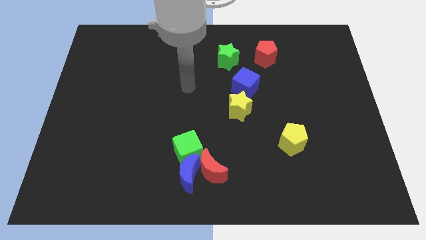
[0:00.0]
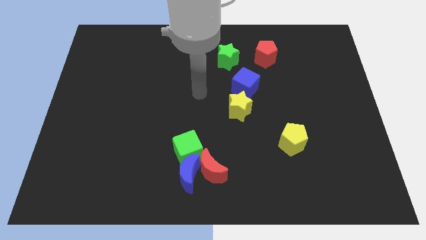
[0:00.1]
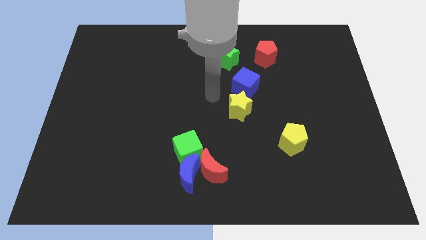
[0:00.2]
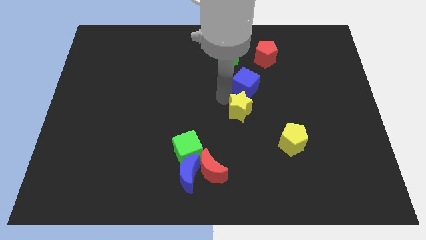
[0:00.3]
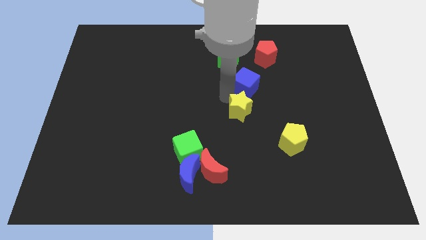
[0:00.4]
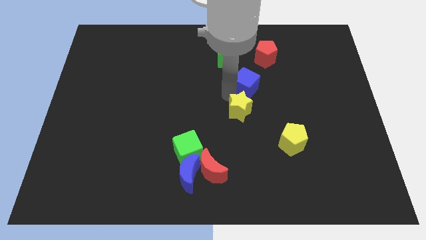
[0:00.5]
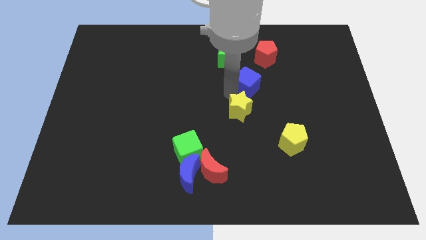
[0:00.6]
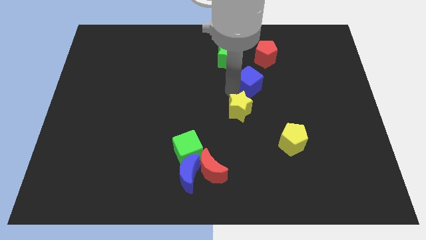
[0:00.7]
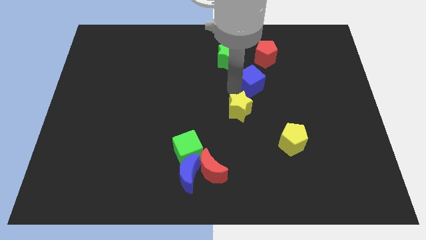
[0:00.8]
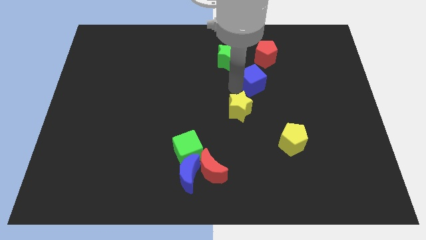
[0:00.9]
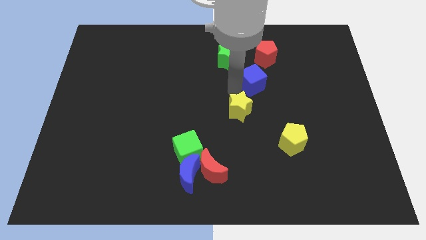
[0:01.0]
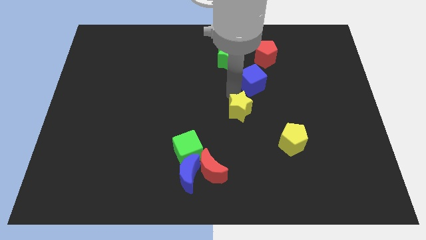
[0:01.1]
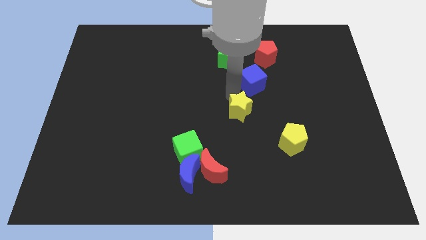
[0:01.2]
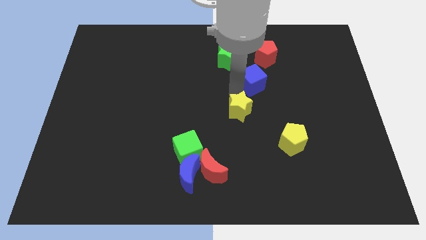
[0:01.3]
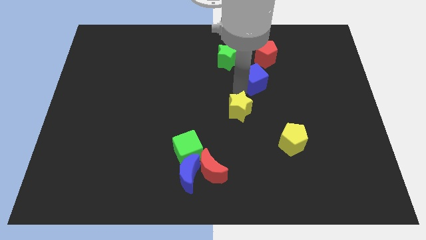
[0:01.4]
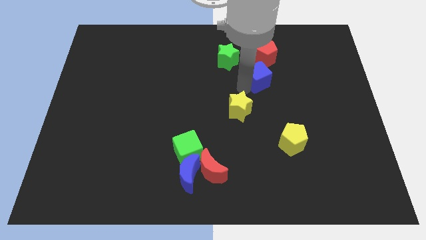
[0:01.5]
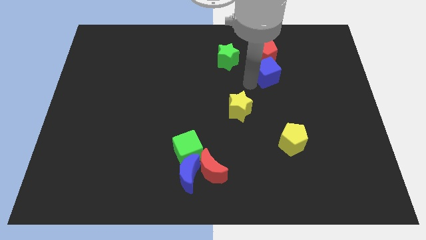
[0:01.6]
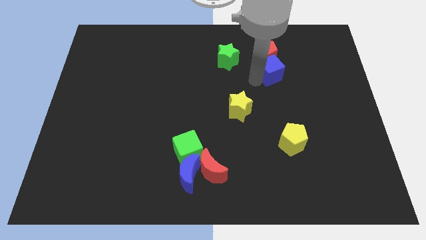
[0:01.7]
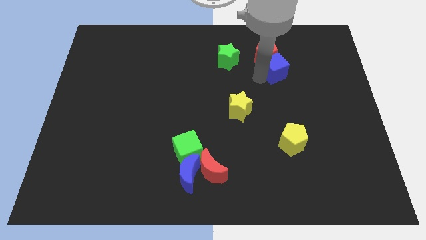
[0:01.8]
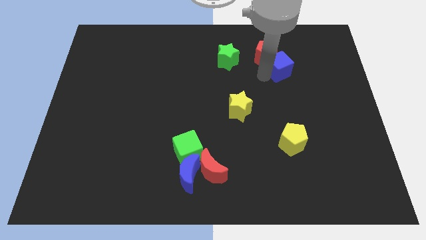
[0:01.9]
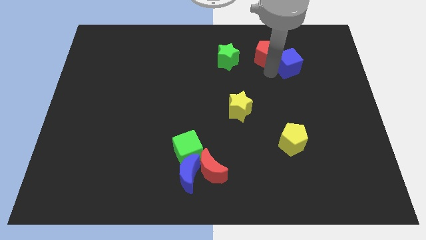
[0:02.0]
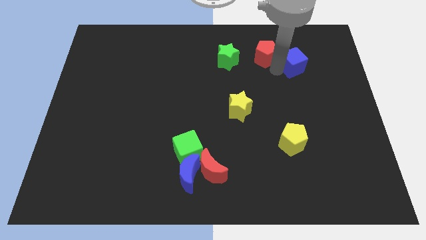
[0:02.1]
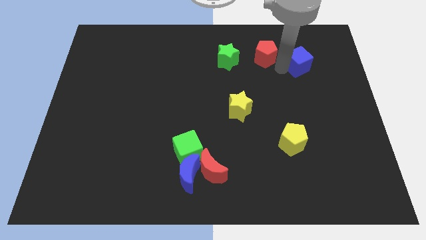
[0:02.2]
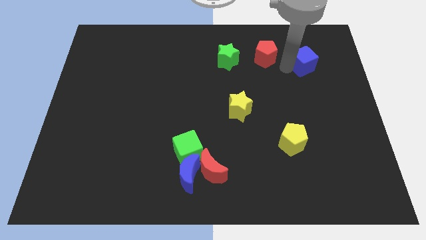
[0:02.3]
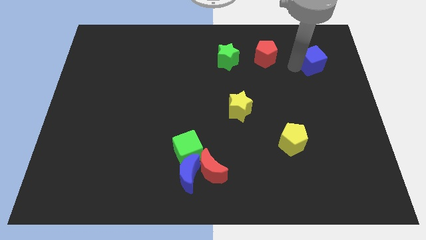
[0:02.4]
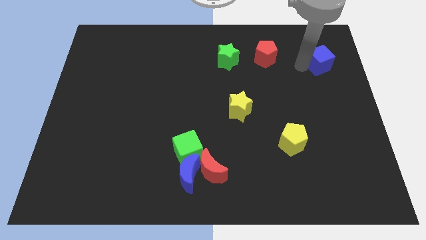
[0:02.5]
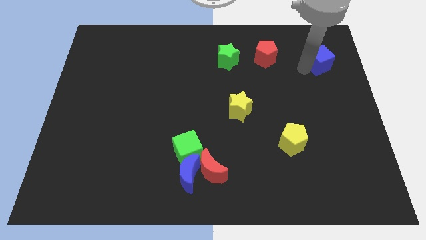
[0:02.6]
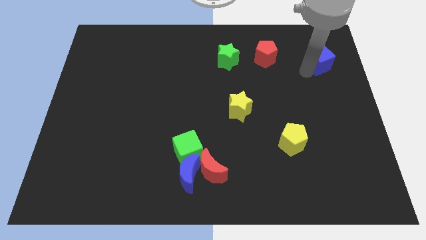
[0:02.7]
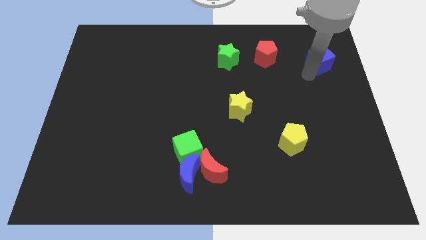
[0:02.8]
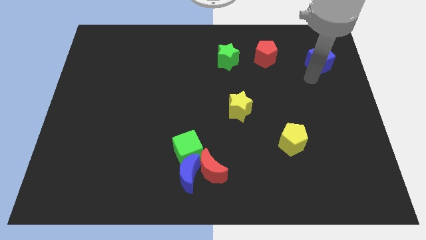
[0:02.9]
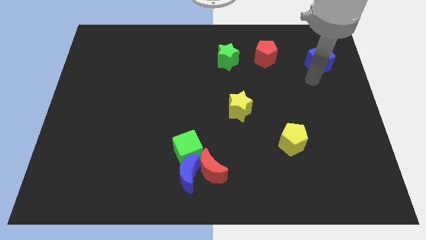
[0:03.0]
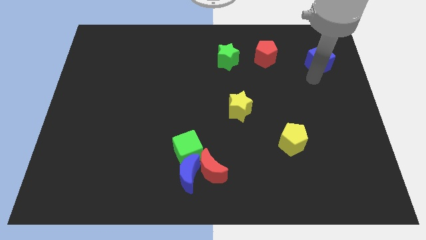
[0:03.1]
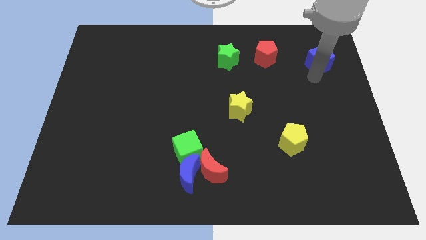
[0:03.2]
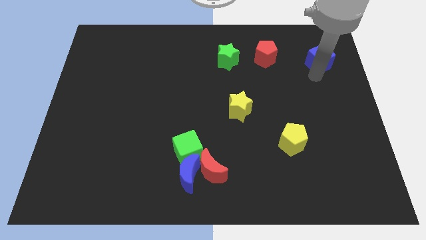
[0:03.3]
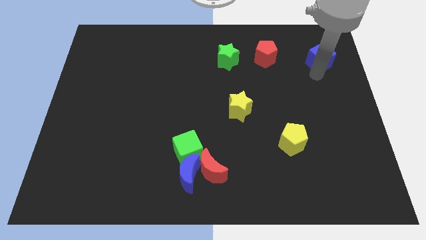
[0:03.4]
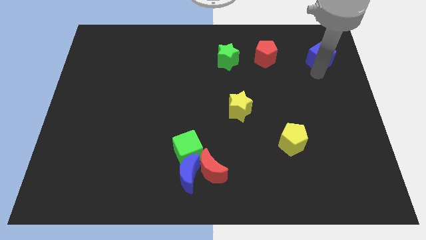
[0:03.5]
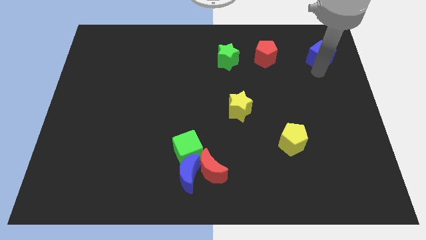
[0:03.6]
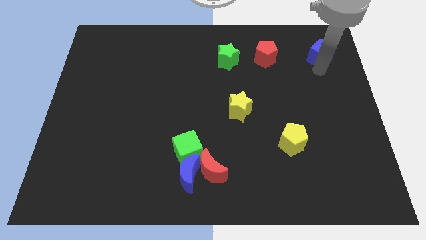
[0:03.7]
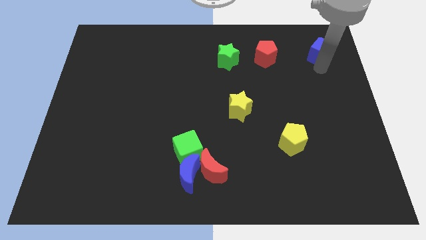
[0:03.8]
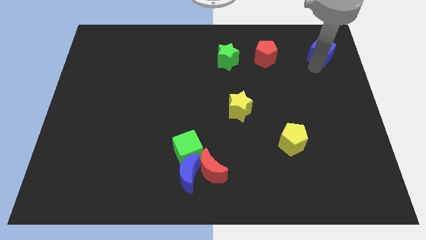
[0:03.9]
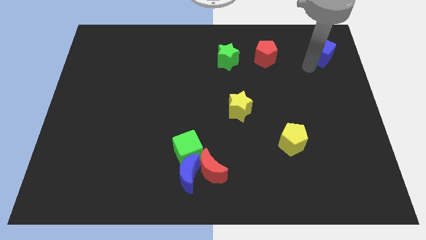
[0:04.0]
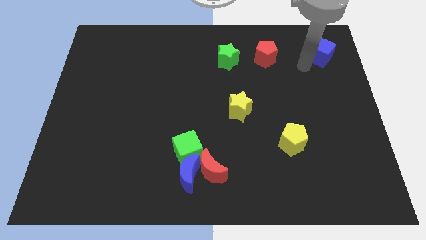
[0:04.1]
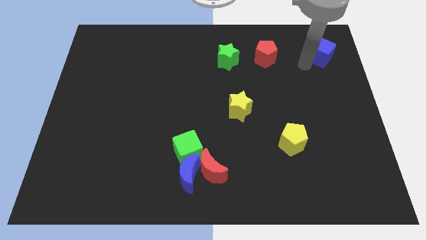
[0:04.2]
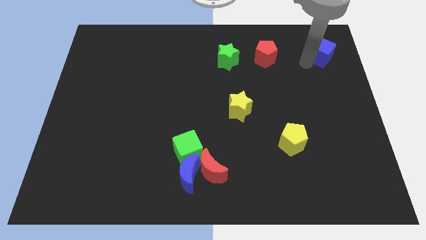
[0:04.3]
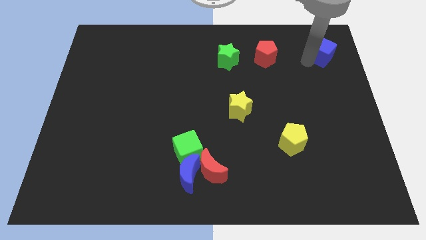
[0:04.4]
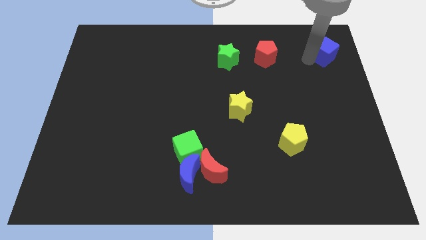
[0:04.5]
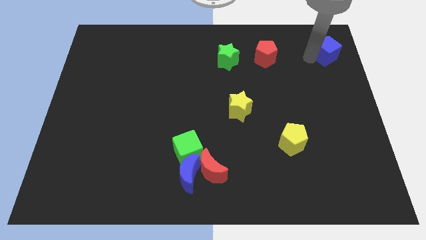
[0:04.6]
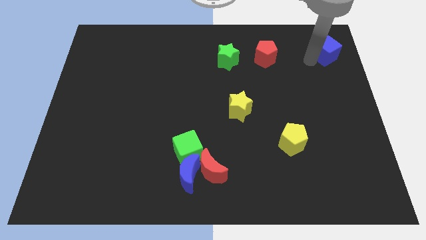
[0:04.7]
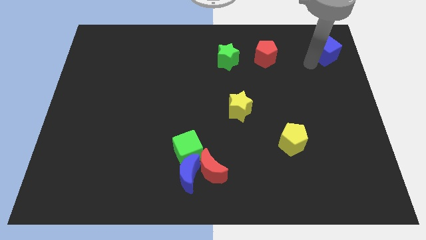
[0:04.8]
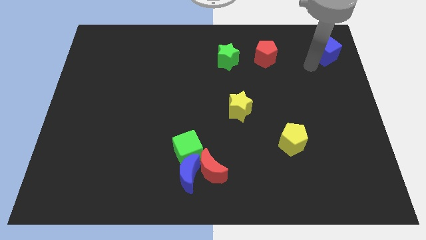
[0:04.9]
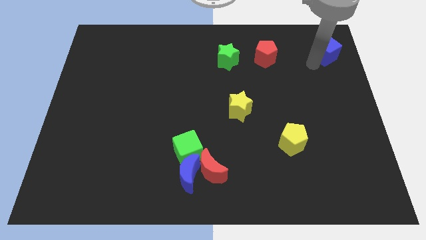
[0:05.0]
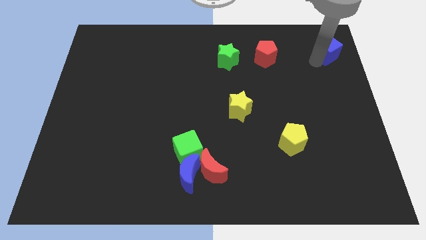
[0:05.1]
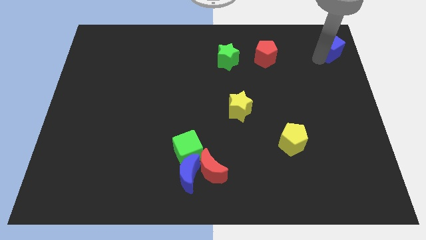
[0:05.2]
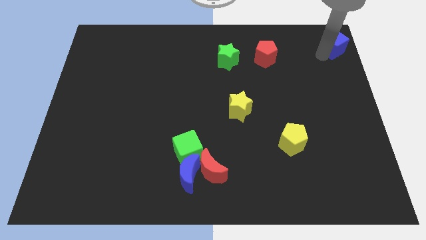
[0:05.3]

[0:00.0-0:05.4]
push the blue cube to the top right of the board

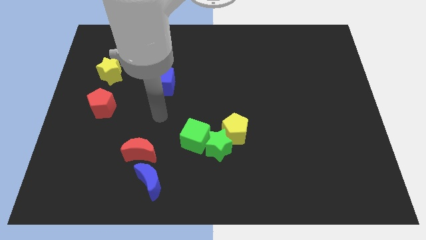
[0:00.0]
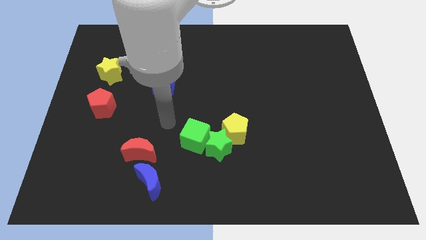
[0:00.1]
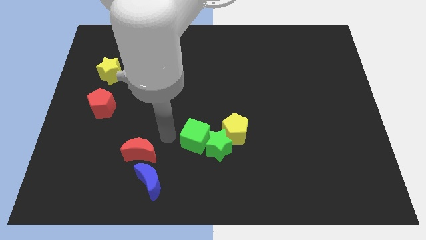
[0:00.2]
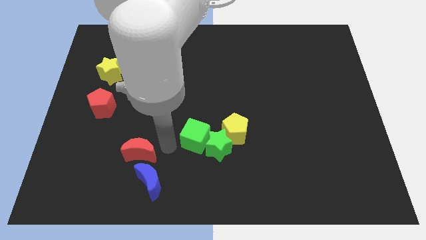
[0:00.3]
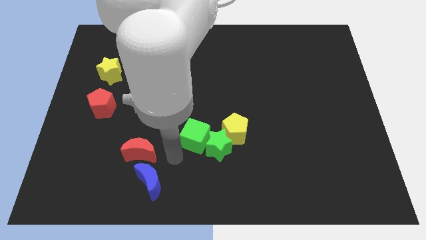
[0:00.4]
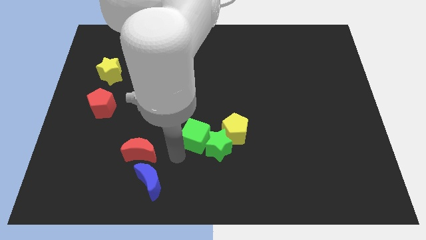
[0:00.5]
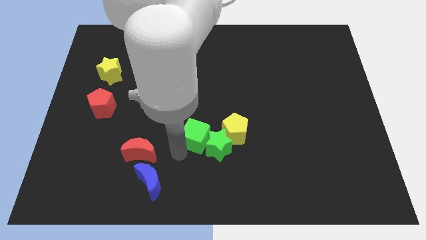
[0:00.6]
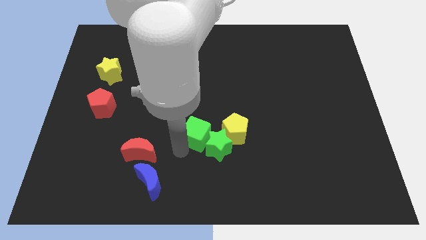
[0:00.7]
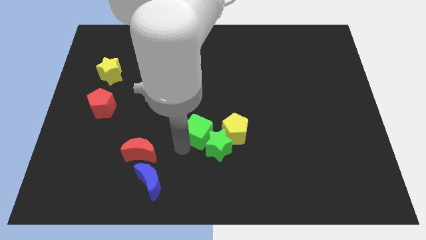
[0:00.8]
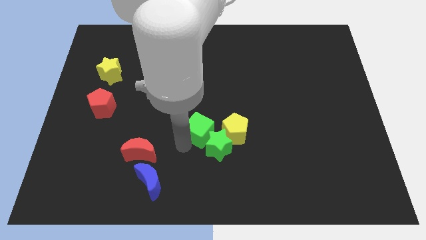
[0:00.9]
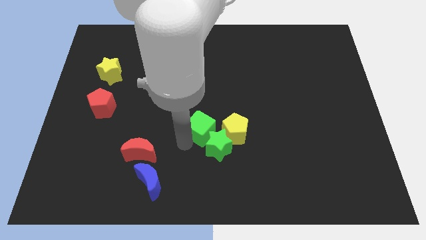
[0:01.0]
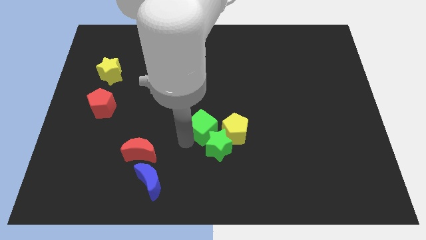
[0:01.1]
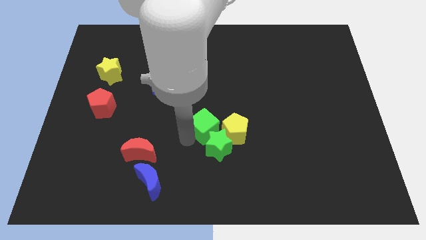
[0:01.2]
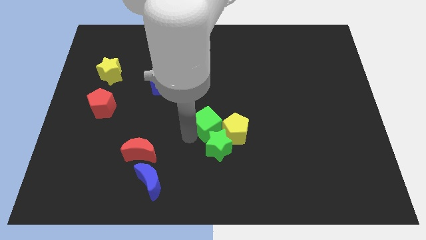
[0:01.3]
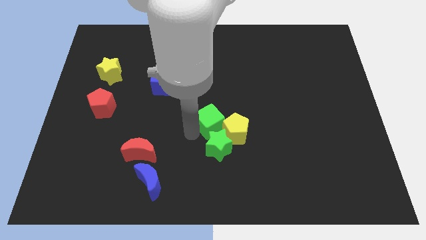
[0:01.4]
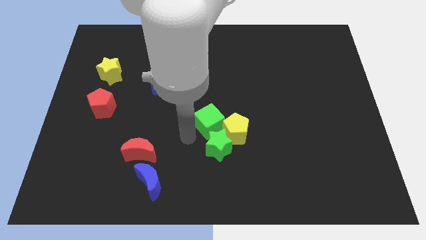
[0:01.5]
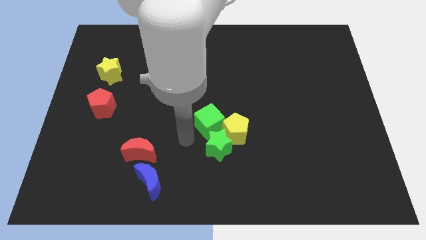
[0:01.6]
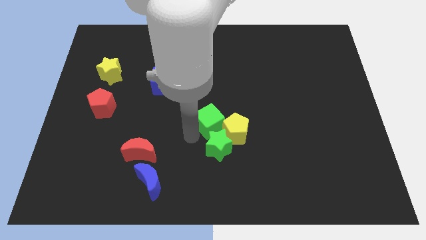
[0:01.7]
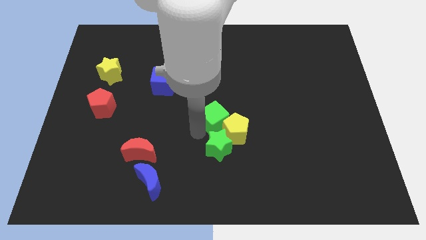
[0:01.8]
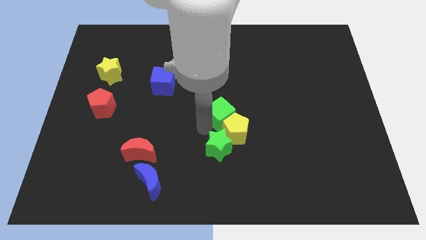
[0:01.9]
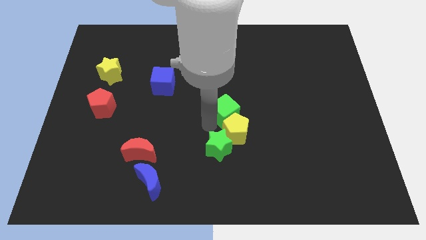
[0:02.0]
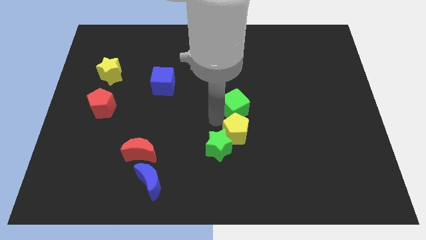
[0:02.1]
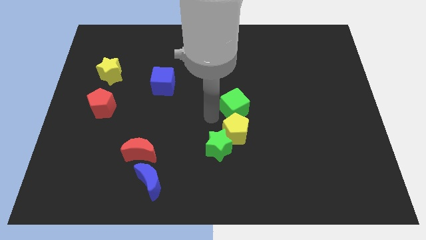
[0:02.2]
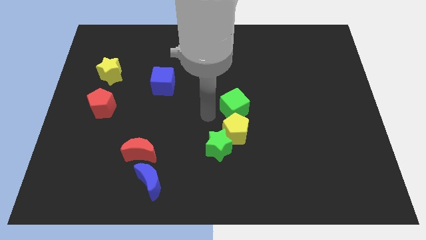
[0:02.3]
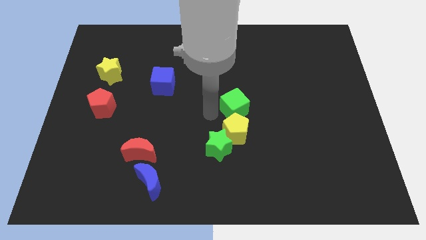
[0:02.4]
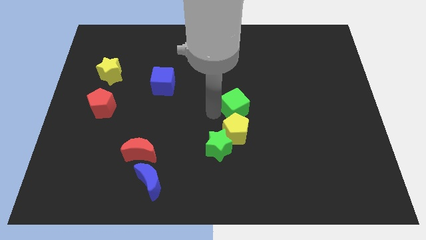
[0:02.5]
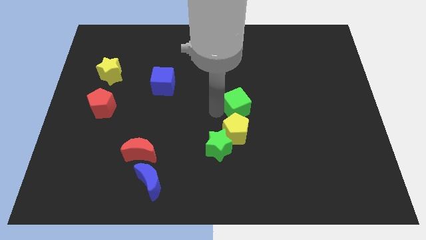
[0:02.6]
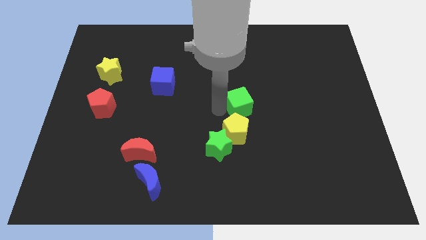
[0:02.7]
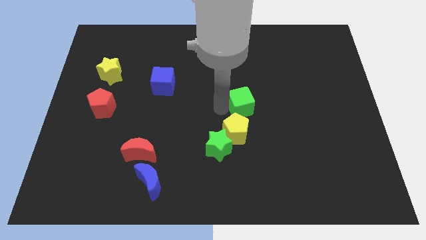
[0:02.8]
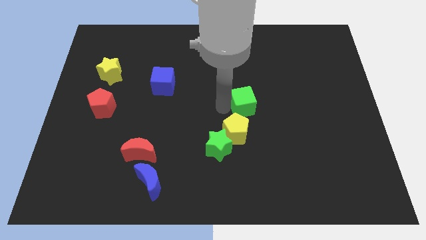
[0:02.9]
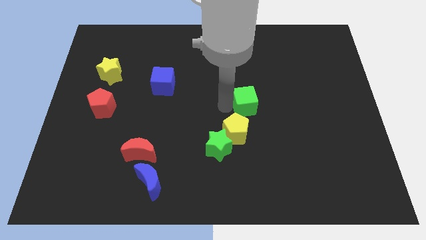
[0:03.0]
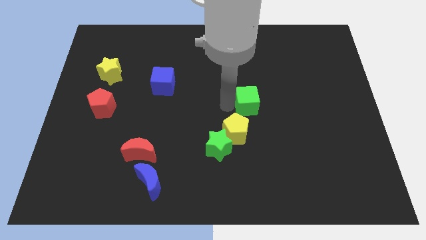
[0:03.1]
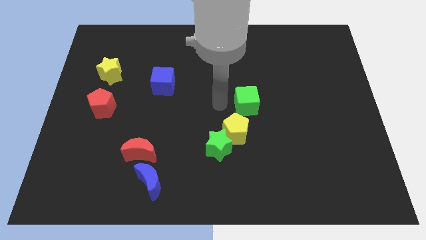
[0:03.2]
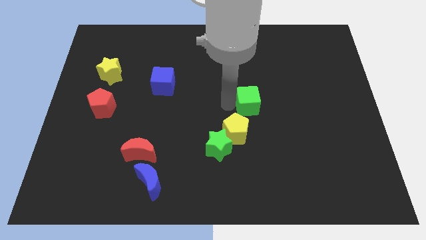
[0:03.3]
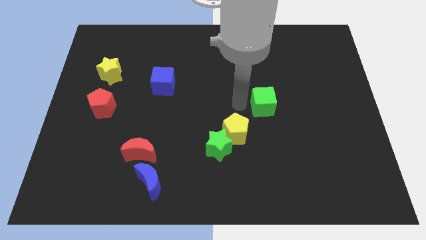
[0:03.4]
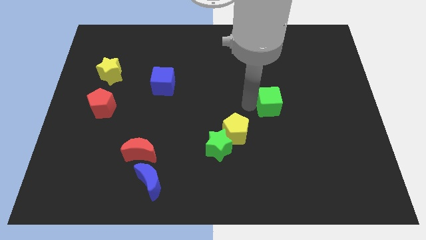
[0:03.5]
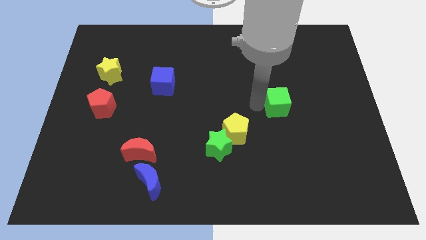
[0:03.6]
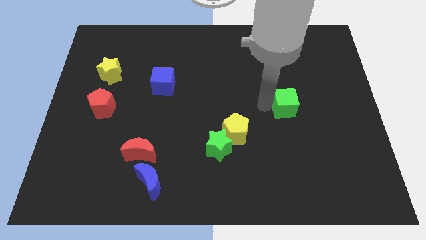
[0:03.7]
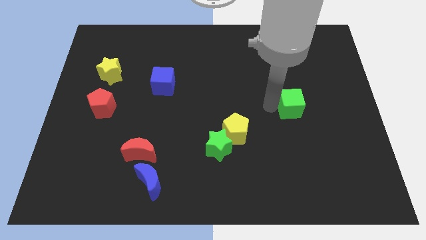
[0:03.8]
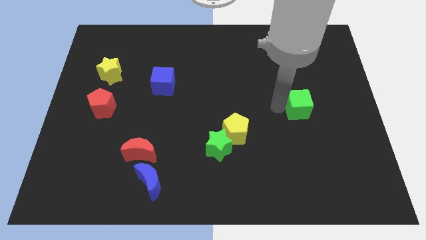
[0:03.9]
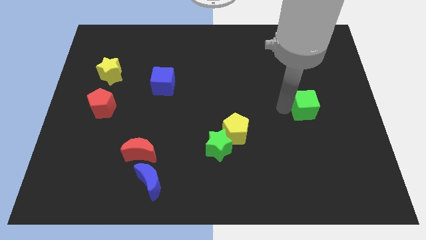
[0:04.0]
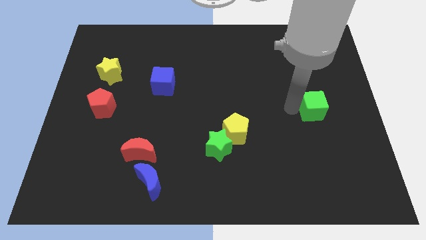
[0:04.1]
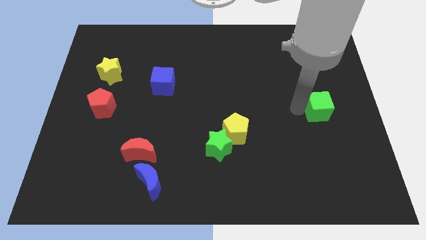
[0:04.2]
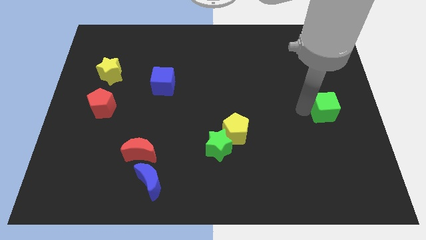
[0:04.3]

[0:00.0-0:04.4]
slide the green cube to the right side
